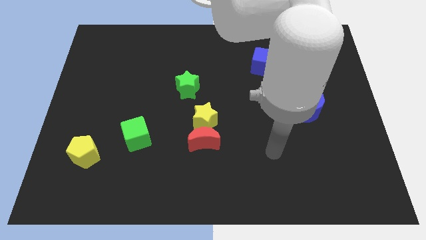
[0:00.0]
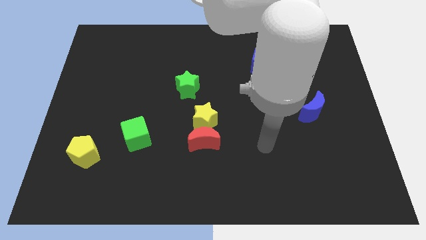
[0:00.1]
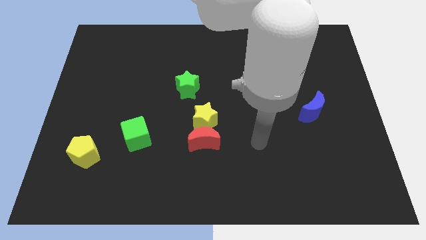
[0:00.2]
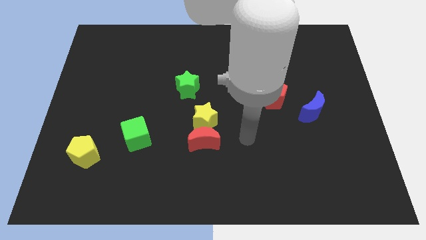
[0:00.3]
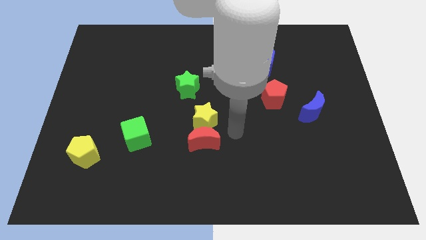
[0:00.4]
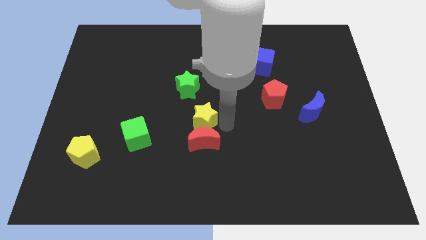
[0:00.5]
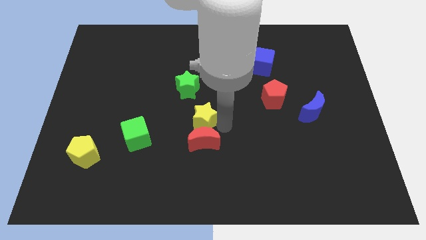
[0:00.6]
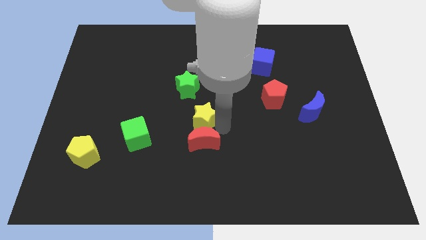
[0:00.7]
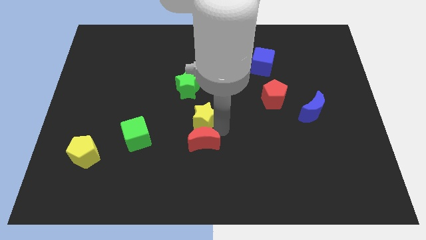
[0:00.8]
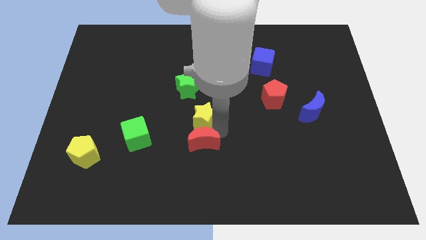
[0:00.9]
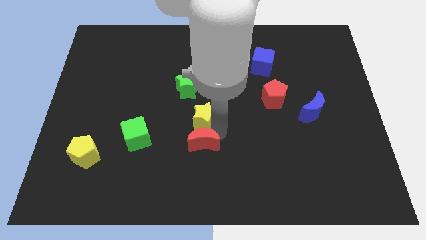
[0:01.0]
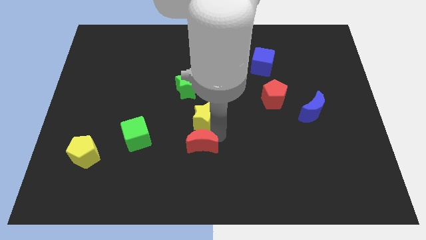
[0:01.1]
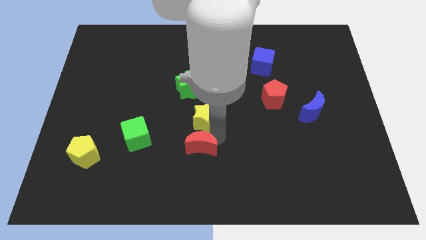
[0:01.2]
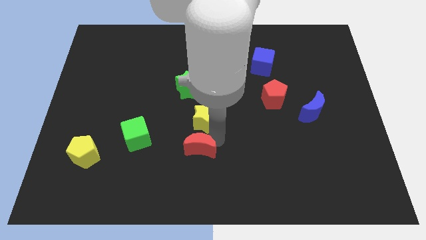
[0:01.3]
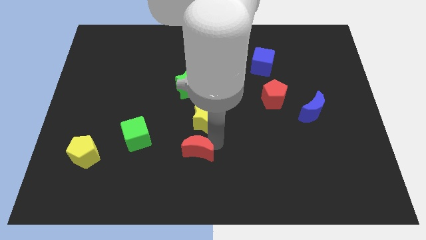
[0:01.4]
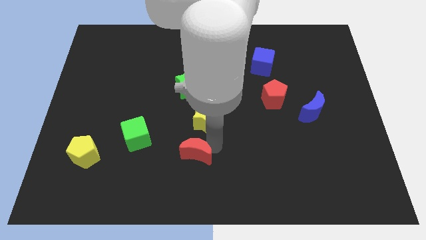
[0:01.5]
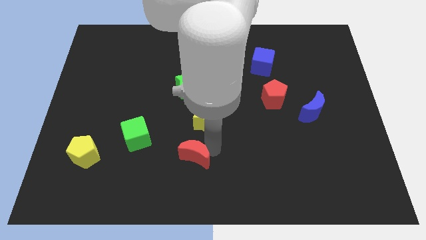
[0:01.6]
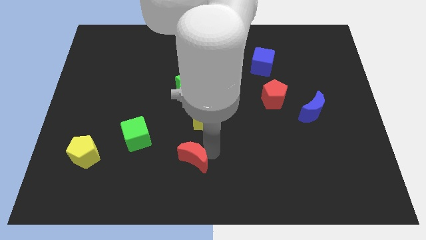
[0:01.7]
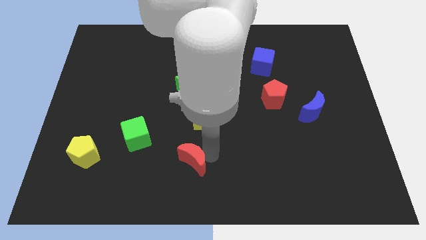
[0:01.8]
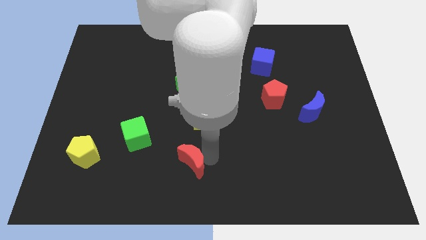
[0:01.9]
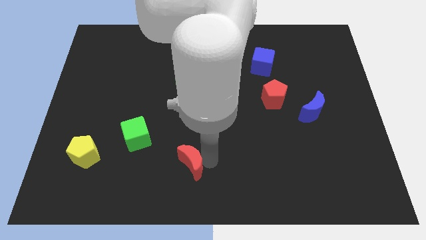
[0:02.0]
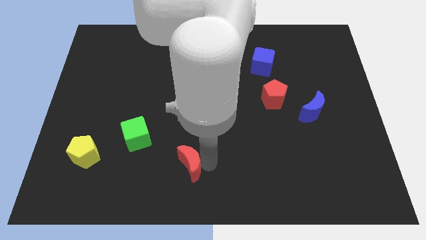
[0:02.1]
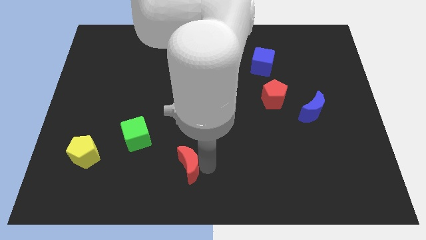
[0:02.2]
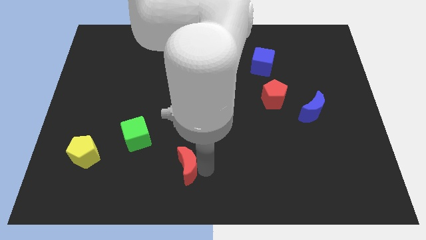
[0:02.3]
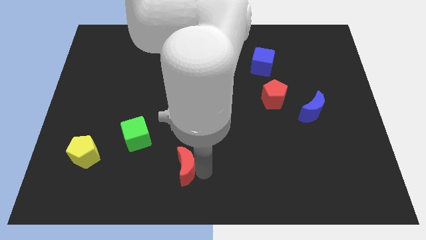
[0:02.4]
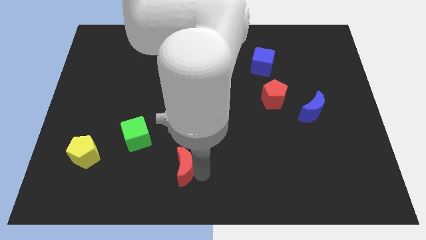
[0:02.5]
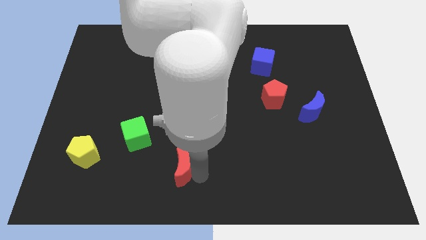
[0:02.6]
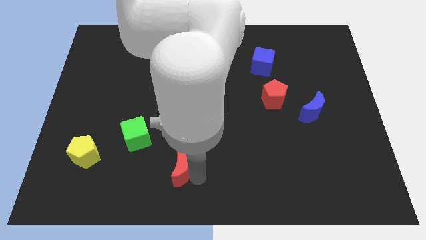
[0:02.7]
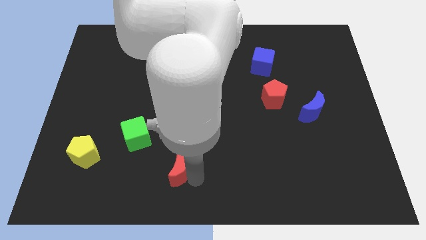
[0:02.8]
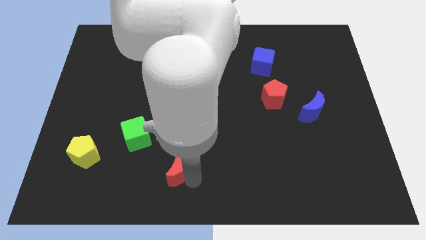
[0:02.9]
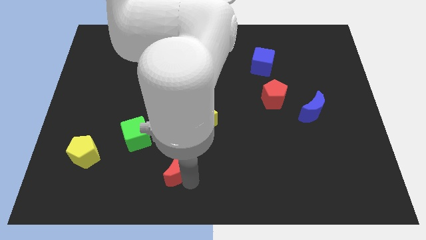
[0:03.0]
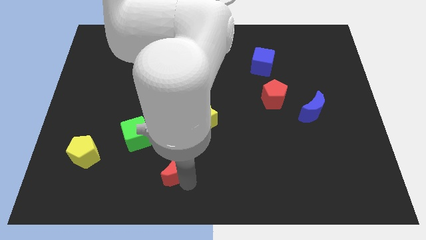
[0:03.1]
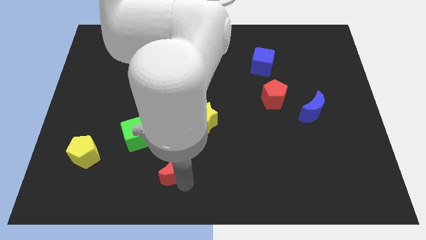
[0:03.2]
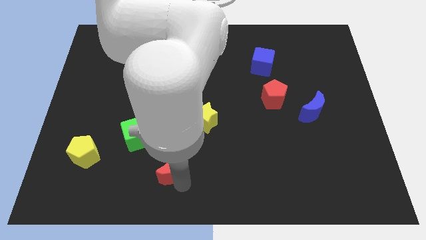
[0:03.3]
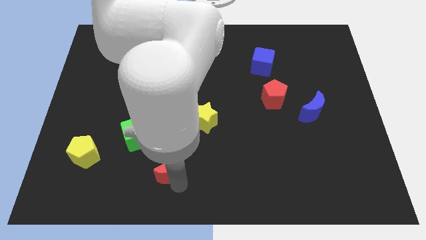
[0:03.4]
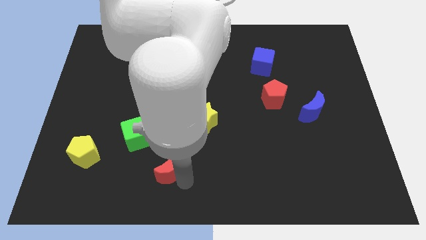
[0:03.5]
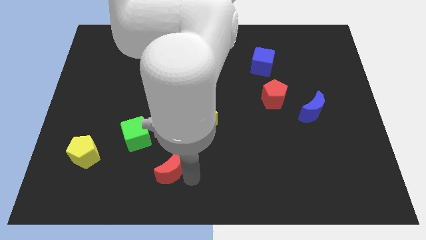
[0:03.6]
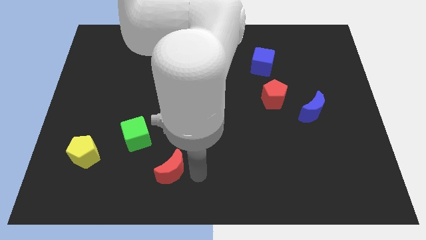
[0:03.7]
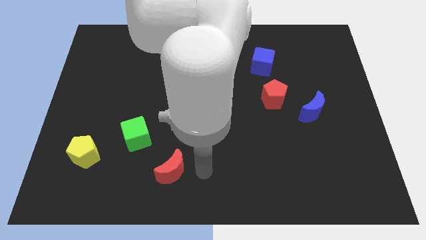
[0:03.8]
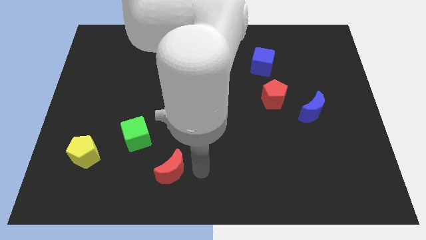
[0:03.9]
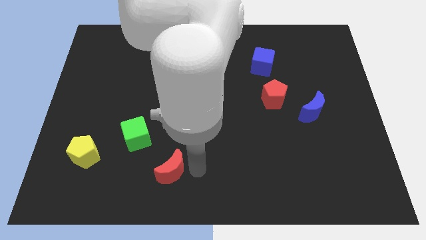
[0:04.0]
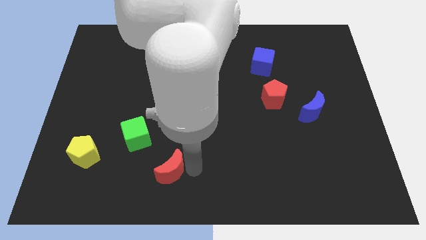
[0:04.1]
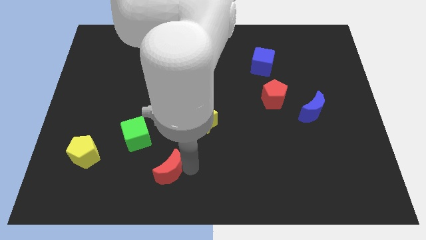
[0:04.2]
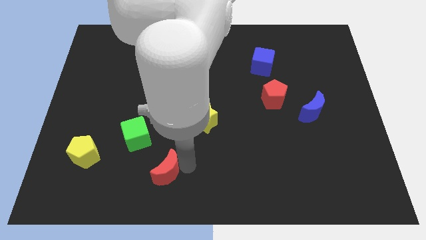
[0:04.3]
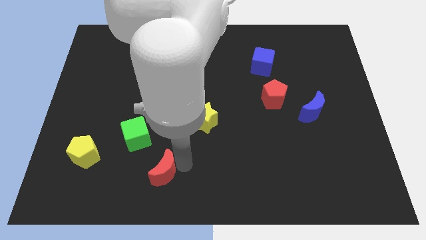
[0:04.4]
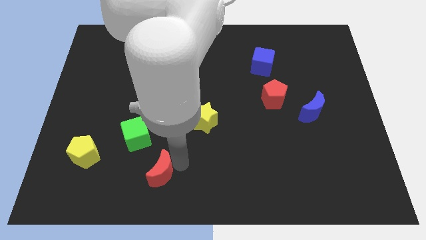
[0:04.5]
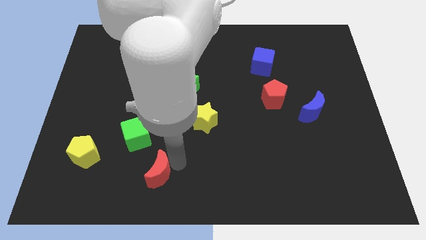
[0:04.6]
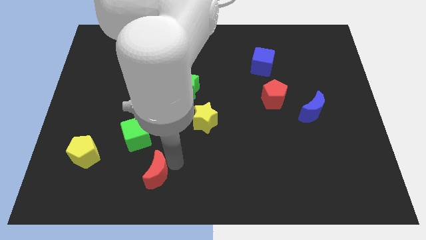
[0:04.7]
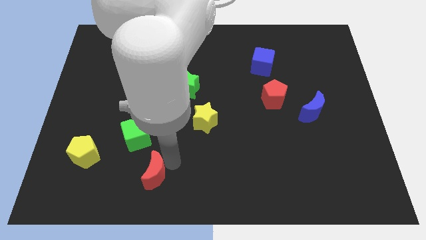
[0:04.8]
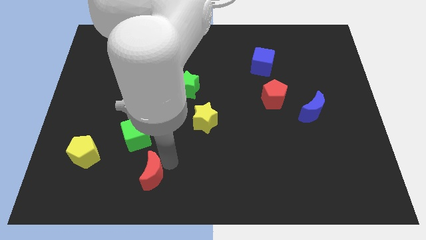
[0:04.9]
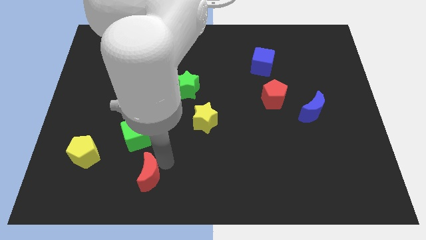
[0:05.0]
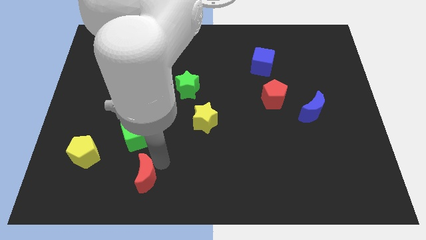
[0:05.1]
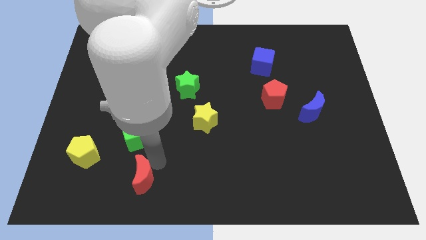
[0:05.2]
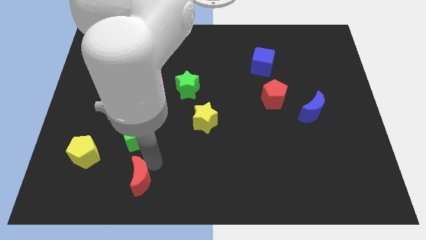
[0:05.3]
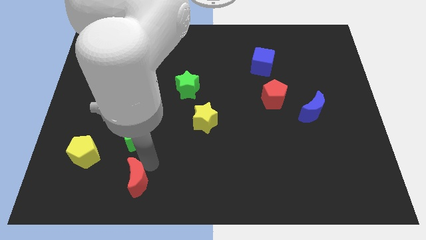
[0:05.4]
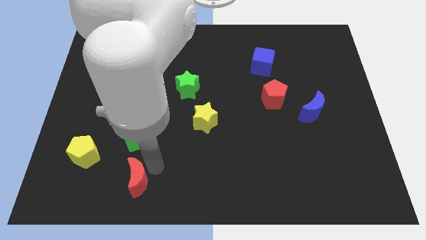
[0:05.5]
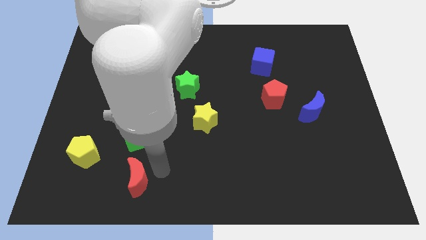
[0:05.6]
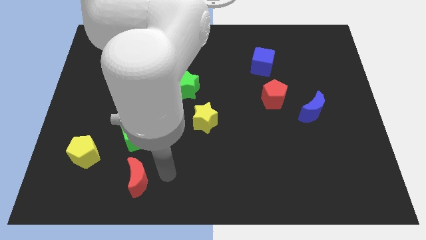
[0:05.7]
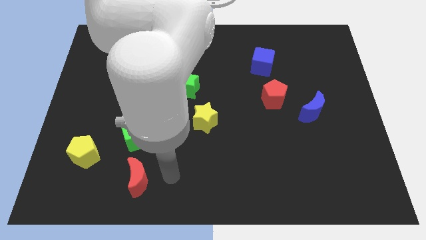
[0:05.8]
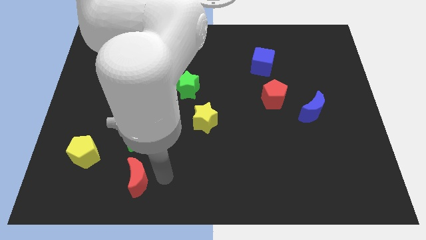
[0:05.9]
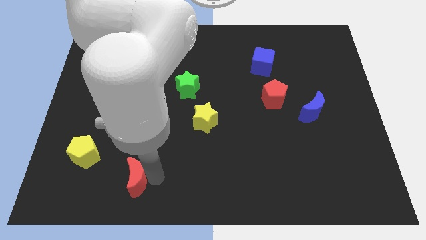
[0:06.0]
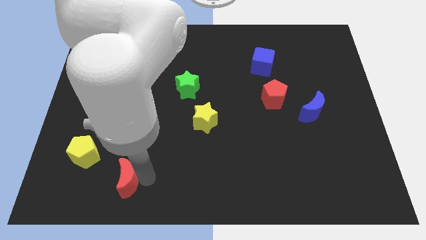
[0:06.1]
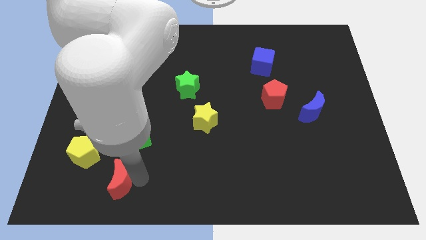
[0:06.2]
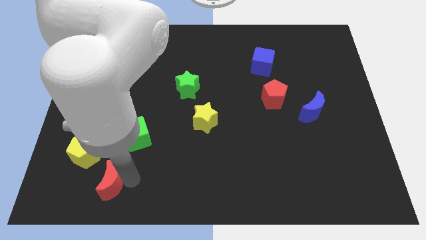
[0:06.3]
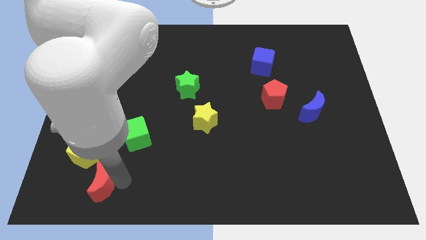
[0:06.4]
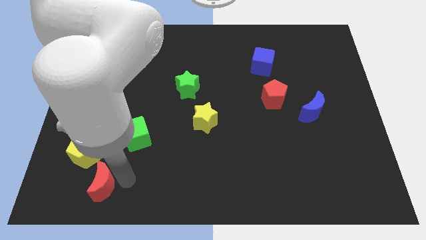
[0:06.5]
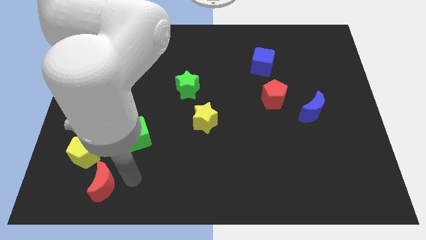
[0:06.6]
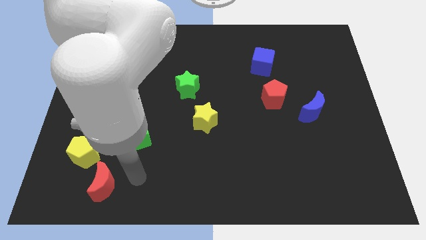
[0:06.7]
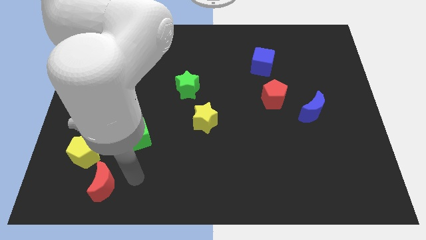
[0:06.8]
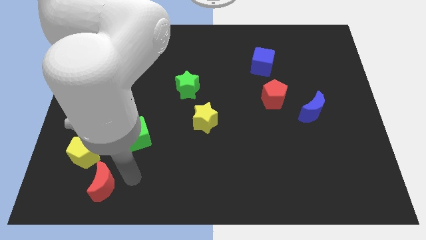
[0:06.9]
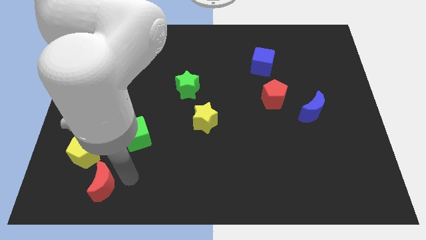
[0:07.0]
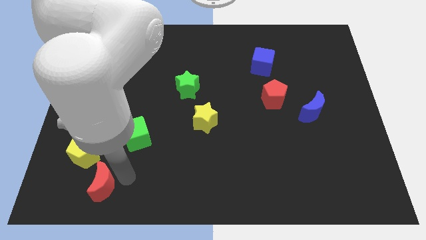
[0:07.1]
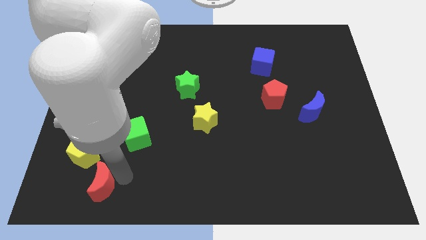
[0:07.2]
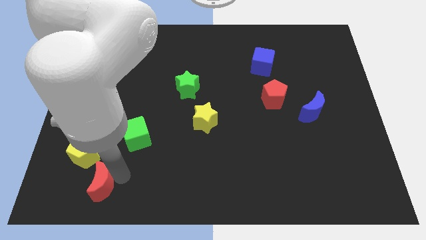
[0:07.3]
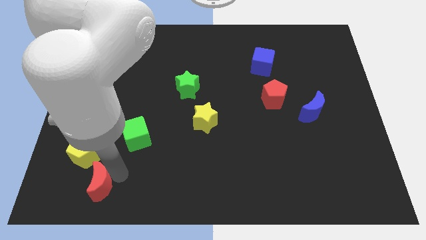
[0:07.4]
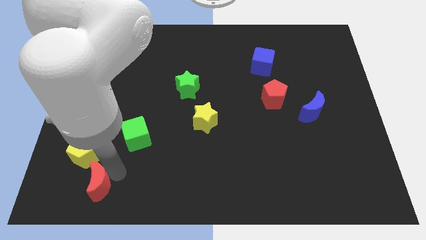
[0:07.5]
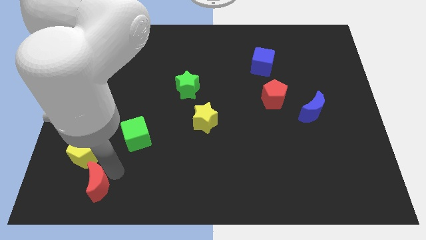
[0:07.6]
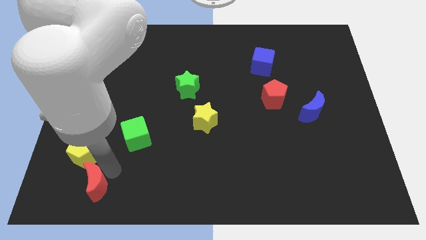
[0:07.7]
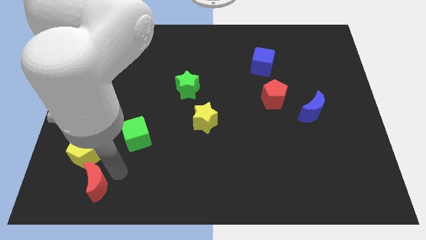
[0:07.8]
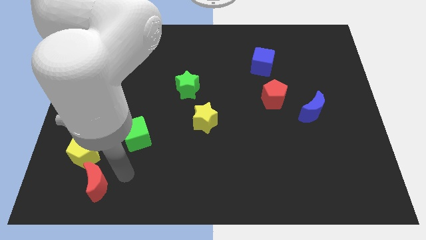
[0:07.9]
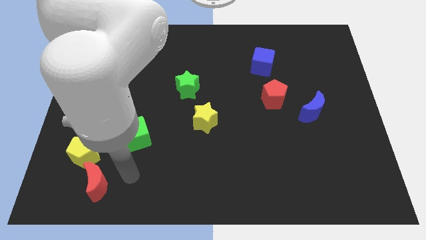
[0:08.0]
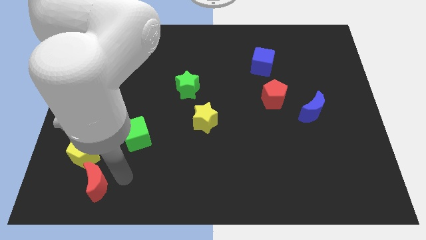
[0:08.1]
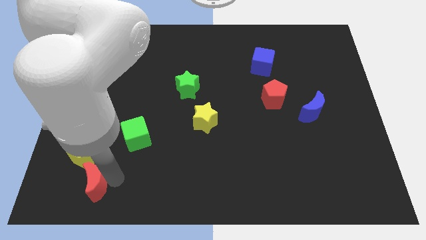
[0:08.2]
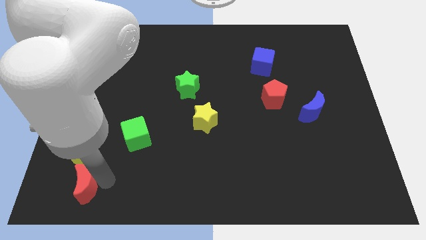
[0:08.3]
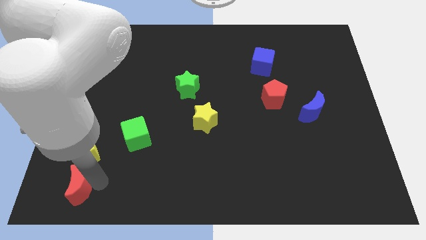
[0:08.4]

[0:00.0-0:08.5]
put the red moon to the lower left corner
